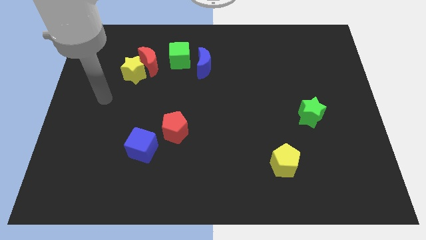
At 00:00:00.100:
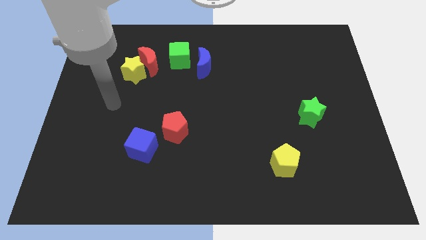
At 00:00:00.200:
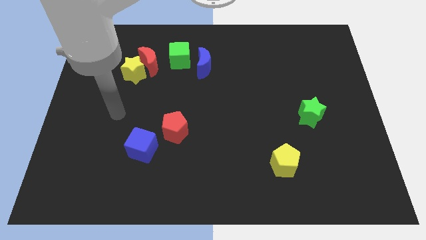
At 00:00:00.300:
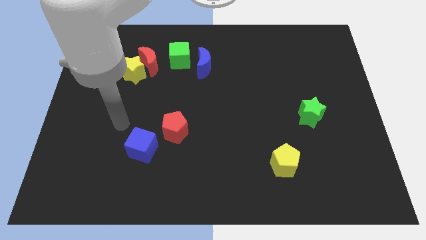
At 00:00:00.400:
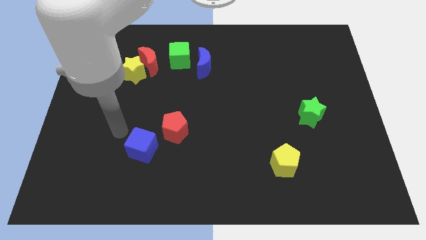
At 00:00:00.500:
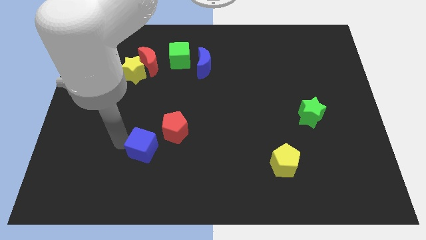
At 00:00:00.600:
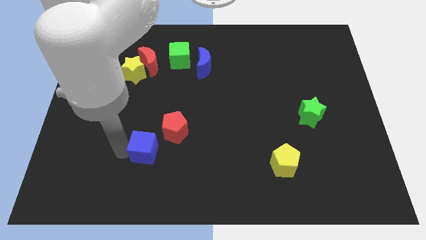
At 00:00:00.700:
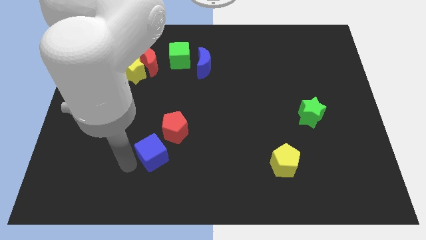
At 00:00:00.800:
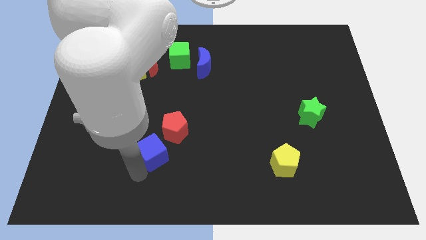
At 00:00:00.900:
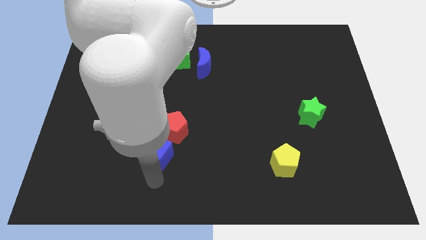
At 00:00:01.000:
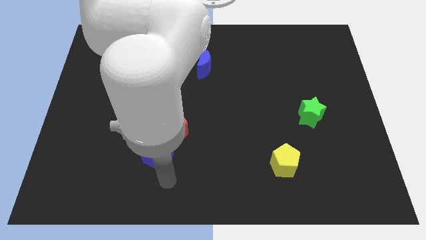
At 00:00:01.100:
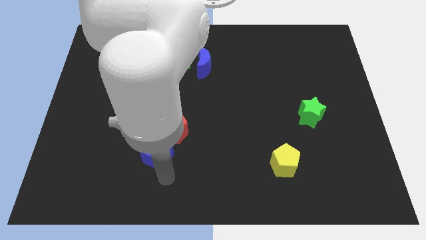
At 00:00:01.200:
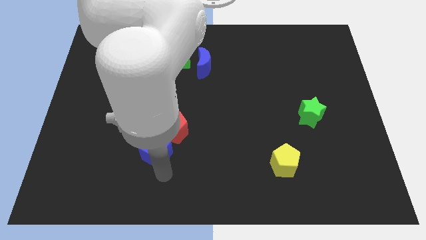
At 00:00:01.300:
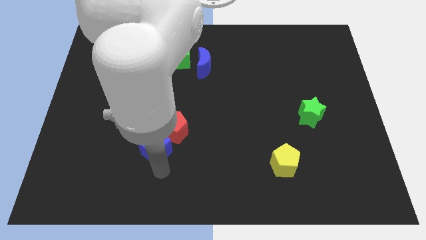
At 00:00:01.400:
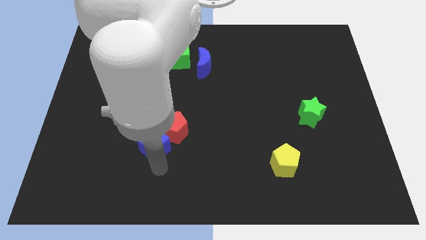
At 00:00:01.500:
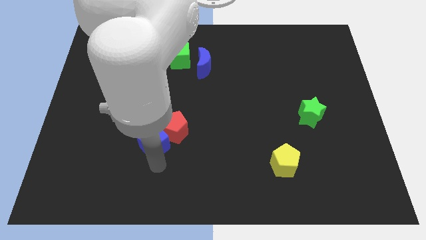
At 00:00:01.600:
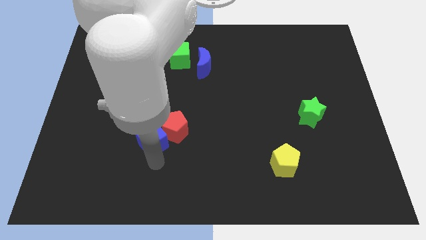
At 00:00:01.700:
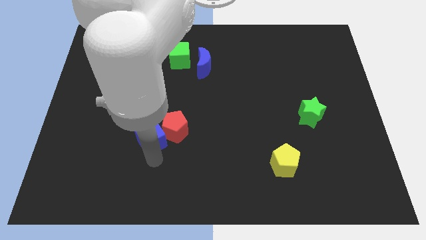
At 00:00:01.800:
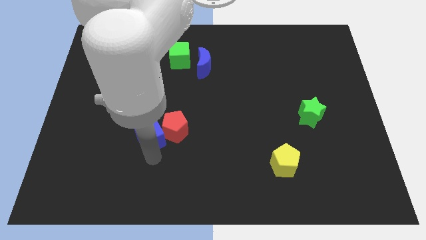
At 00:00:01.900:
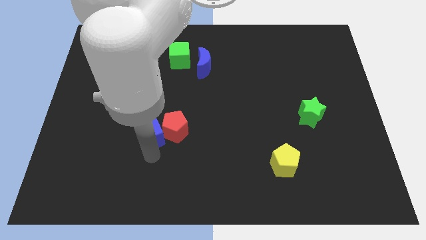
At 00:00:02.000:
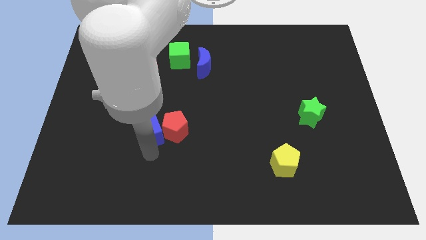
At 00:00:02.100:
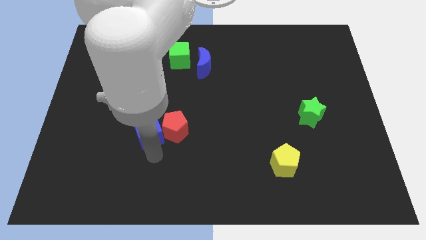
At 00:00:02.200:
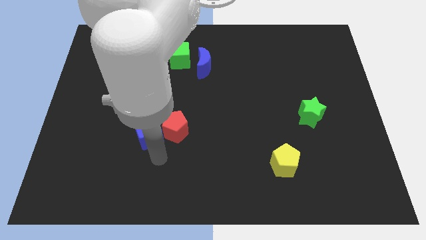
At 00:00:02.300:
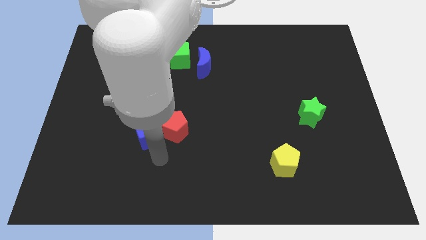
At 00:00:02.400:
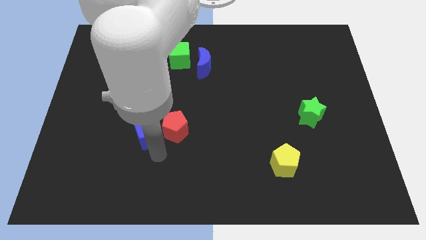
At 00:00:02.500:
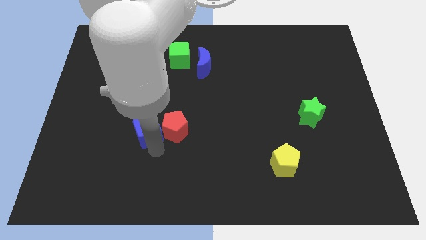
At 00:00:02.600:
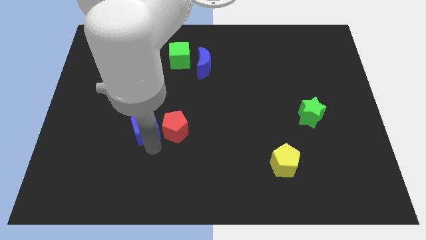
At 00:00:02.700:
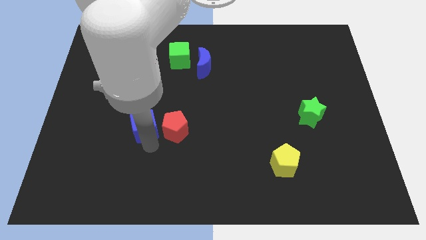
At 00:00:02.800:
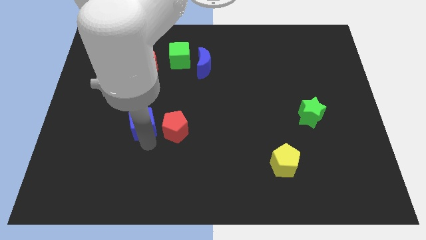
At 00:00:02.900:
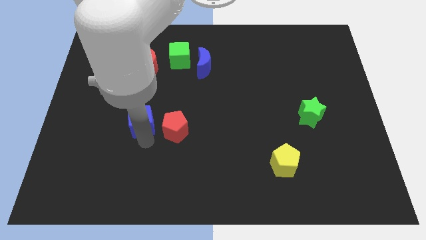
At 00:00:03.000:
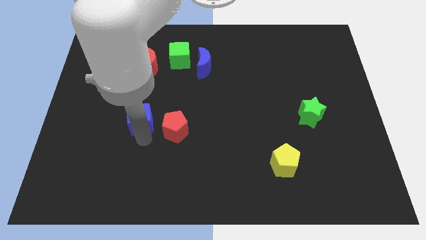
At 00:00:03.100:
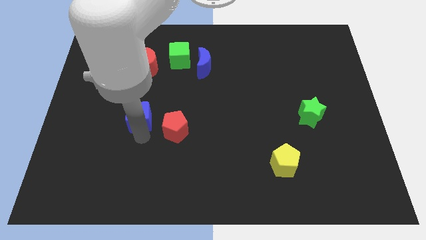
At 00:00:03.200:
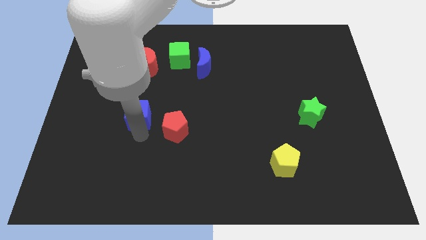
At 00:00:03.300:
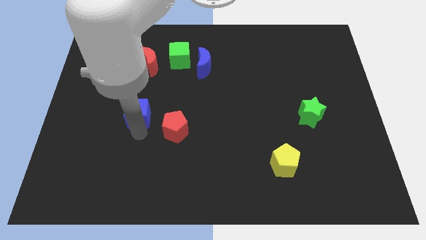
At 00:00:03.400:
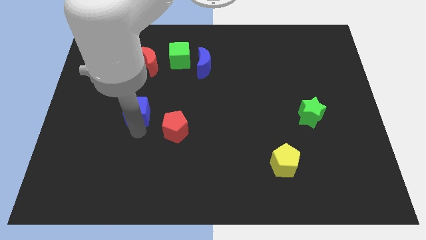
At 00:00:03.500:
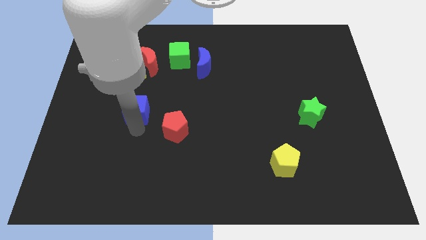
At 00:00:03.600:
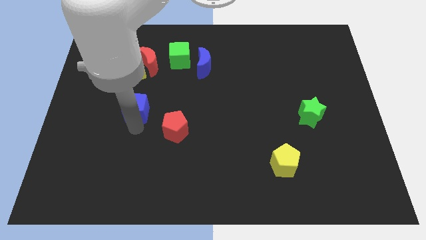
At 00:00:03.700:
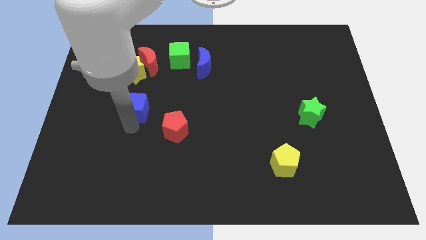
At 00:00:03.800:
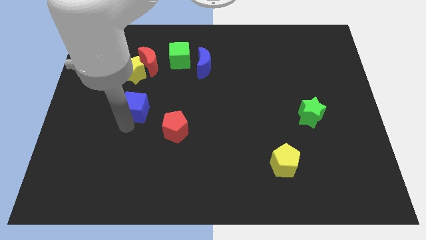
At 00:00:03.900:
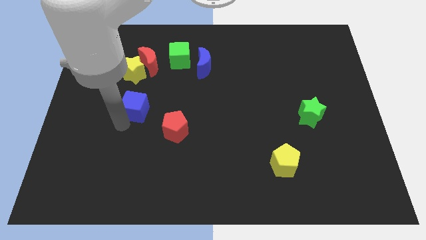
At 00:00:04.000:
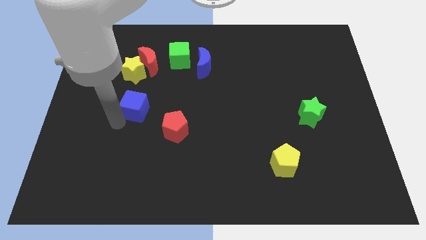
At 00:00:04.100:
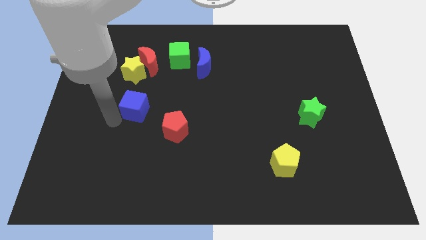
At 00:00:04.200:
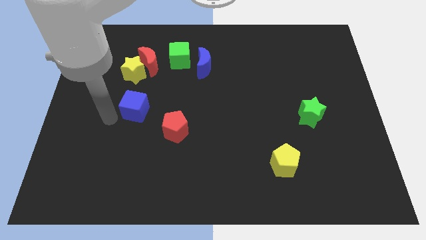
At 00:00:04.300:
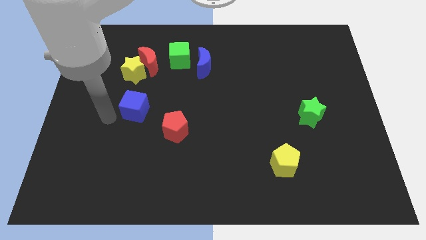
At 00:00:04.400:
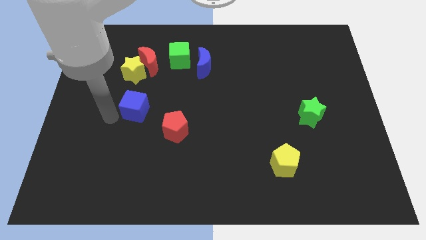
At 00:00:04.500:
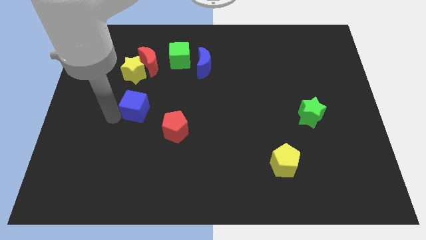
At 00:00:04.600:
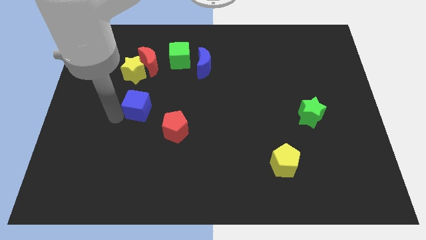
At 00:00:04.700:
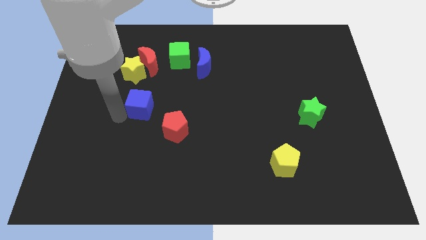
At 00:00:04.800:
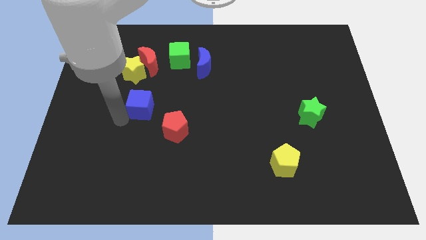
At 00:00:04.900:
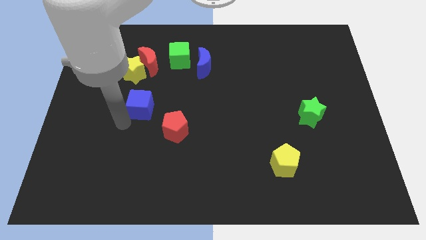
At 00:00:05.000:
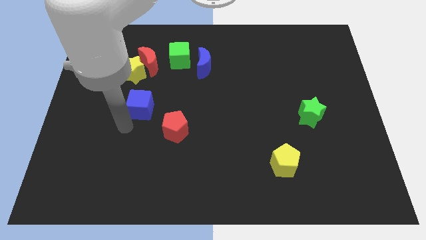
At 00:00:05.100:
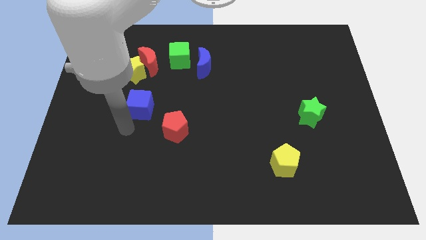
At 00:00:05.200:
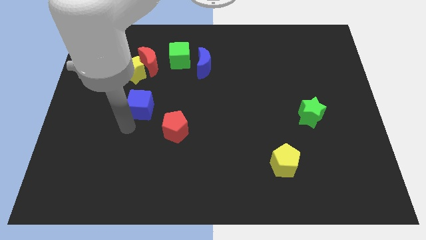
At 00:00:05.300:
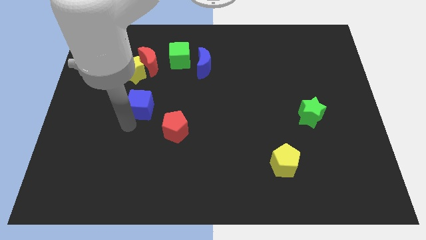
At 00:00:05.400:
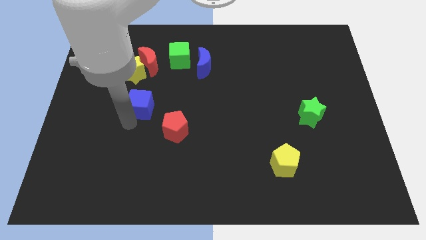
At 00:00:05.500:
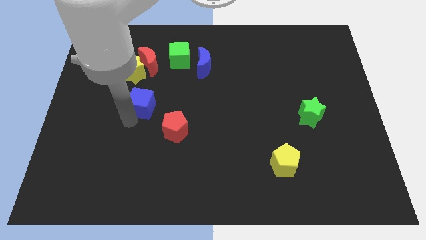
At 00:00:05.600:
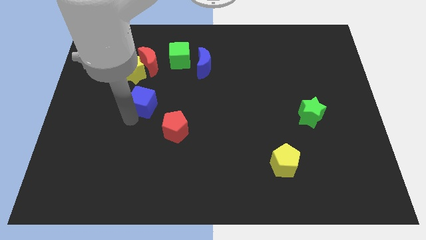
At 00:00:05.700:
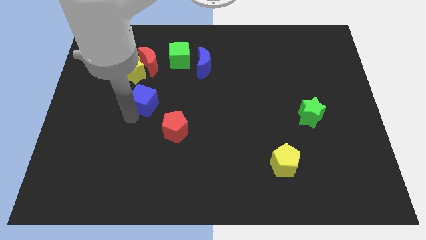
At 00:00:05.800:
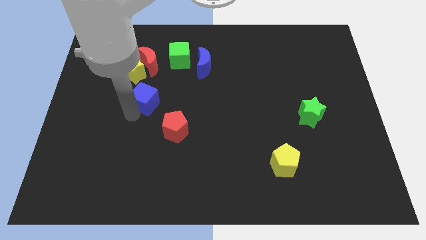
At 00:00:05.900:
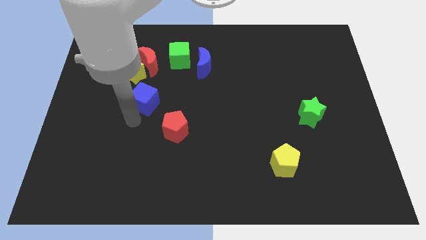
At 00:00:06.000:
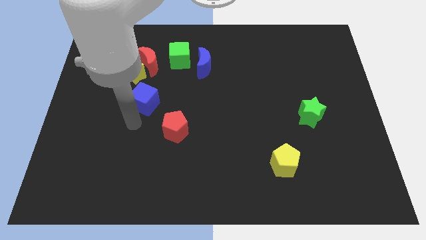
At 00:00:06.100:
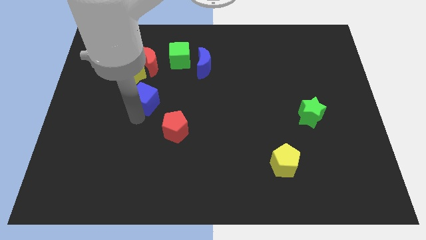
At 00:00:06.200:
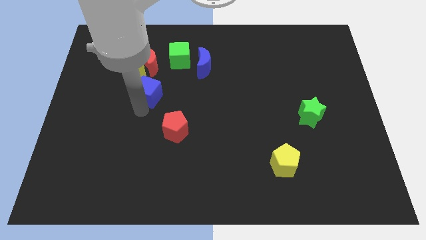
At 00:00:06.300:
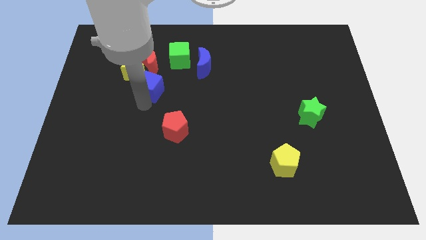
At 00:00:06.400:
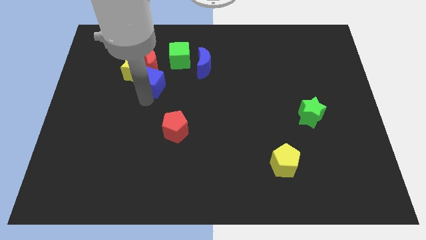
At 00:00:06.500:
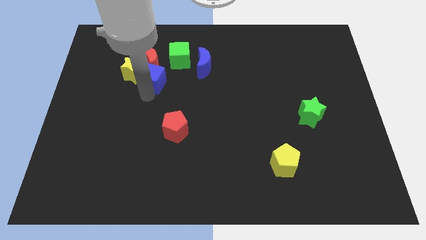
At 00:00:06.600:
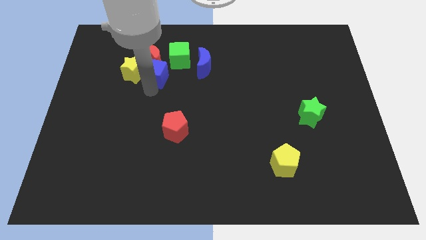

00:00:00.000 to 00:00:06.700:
put the blue cube close to the red moon
